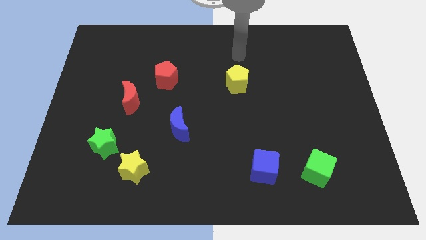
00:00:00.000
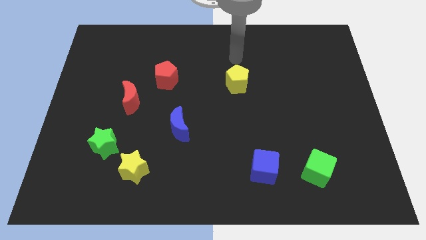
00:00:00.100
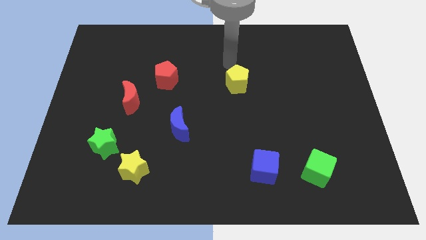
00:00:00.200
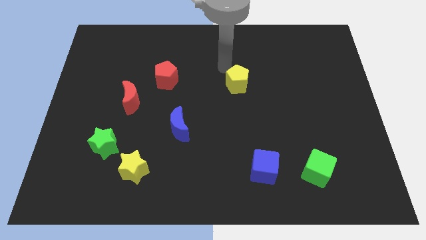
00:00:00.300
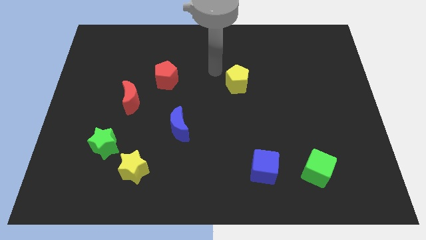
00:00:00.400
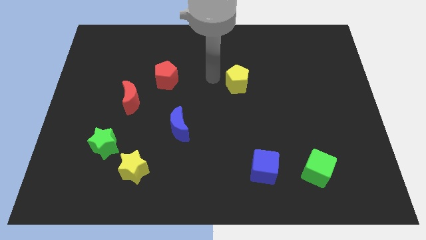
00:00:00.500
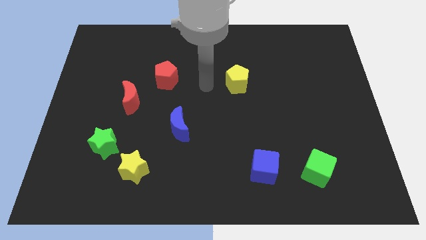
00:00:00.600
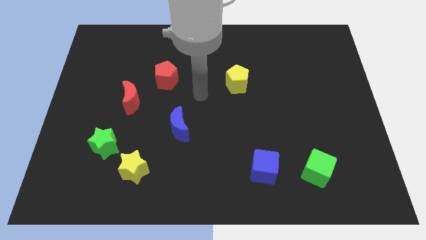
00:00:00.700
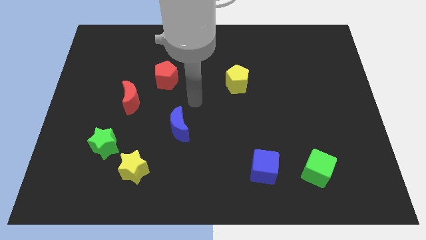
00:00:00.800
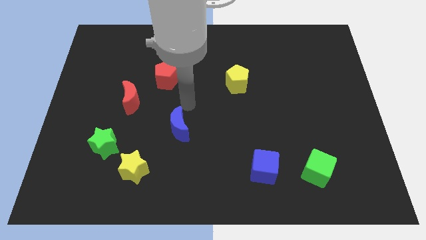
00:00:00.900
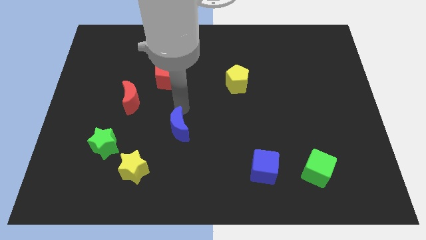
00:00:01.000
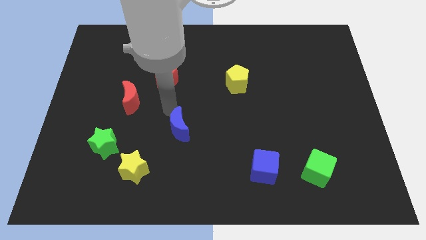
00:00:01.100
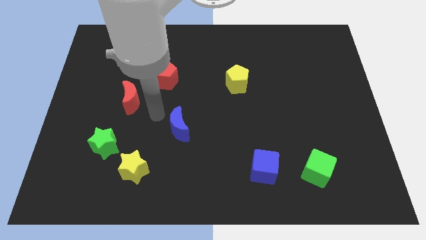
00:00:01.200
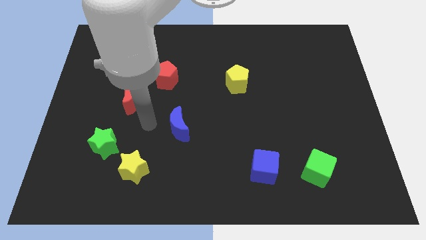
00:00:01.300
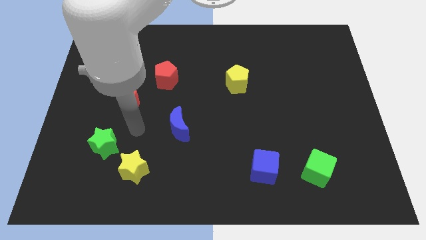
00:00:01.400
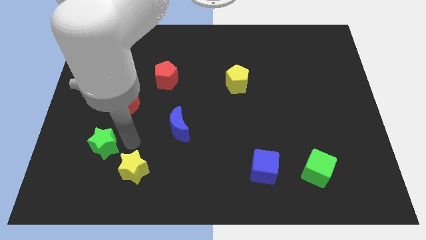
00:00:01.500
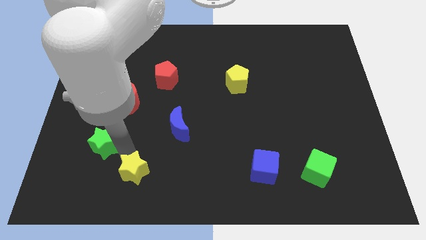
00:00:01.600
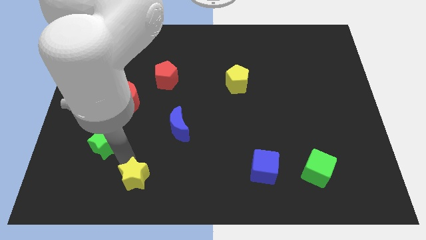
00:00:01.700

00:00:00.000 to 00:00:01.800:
separate the green star from the yellow star

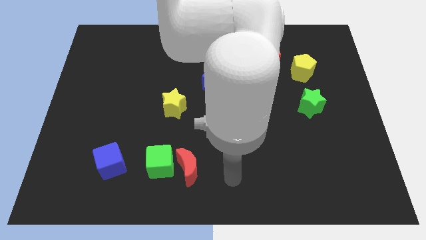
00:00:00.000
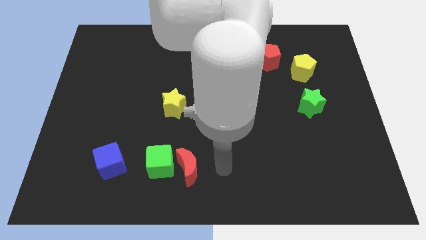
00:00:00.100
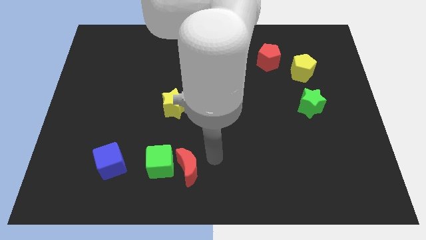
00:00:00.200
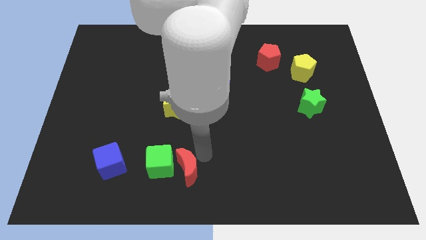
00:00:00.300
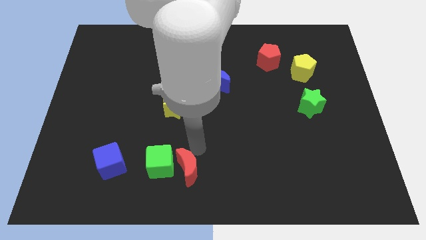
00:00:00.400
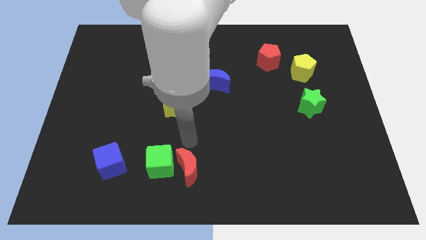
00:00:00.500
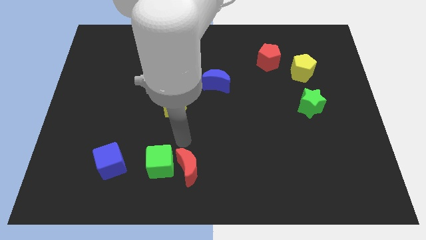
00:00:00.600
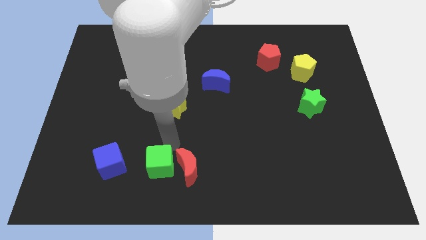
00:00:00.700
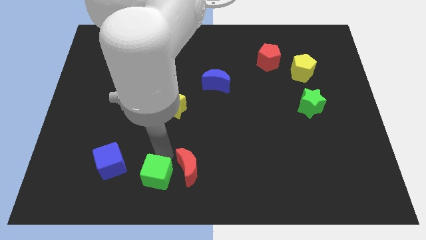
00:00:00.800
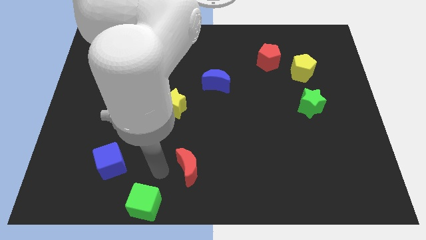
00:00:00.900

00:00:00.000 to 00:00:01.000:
pull the red moon apart from the green cube

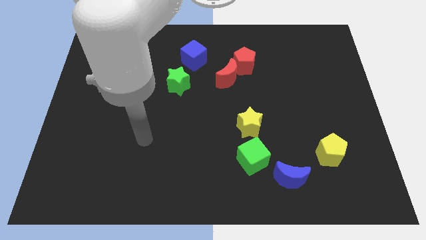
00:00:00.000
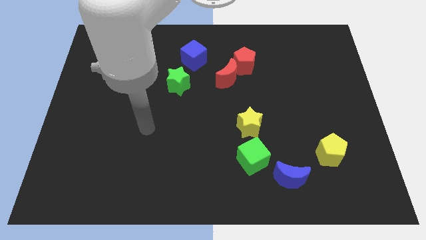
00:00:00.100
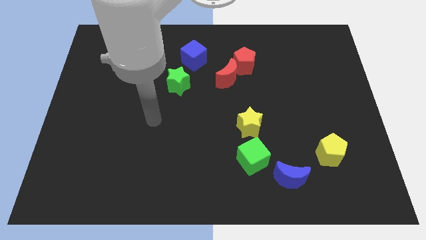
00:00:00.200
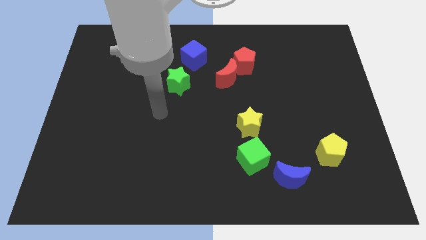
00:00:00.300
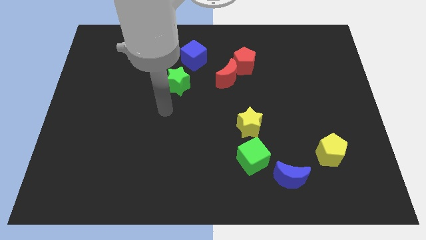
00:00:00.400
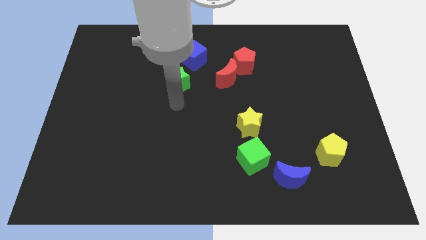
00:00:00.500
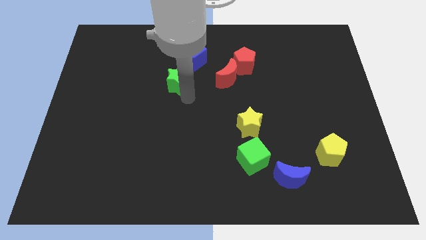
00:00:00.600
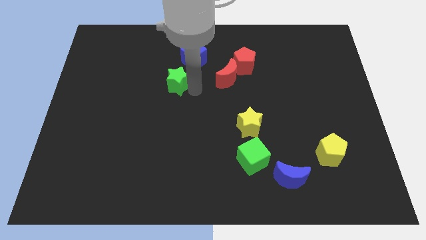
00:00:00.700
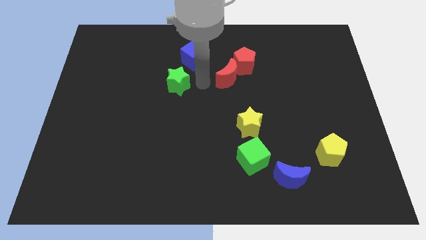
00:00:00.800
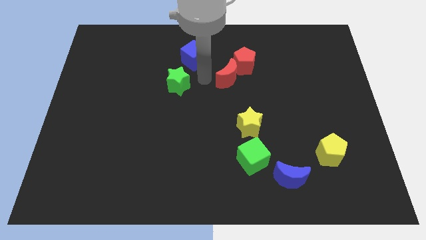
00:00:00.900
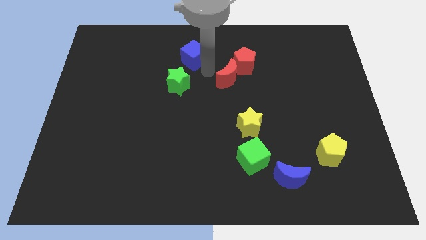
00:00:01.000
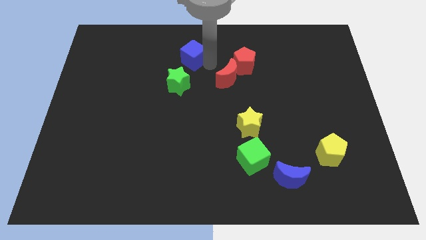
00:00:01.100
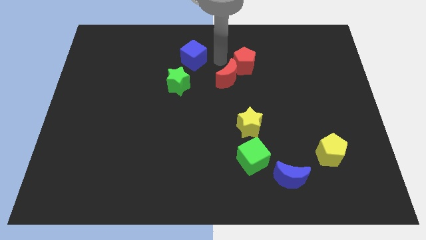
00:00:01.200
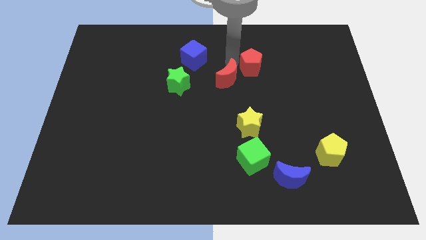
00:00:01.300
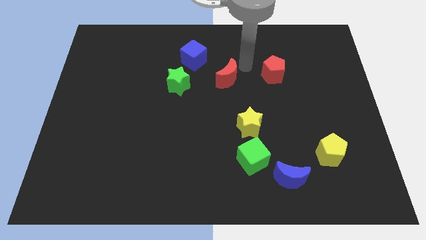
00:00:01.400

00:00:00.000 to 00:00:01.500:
separate the red moon from the red pentagon

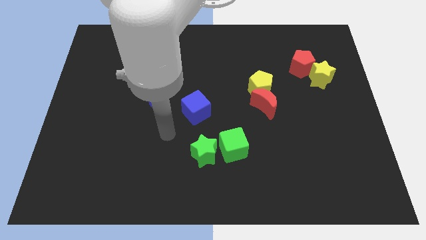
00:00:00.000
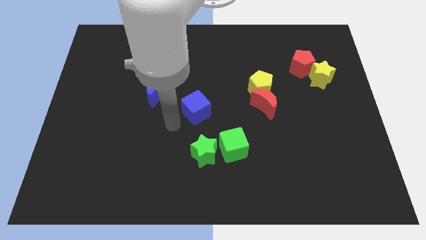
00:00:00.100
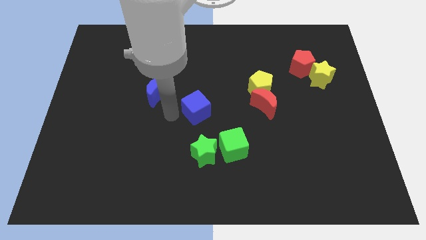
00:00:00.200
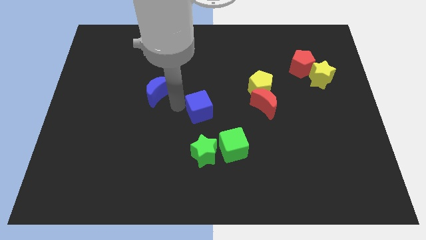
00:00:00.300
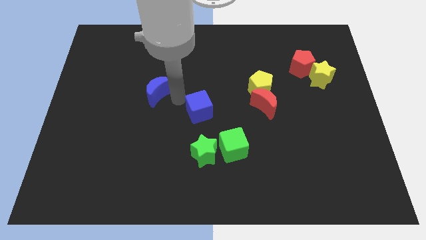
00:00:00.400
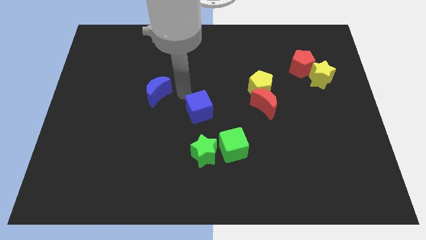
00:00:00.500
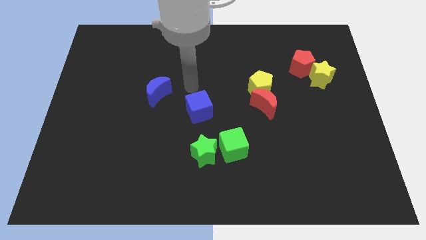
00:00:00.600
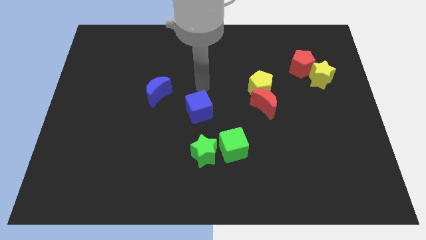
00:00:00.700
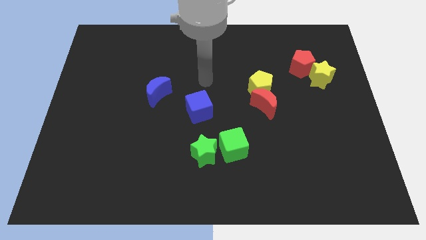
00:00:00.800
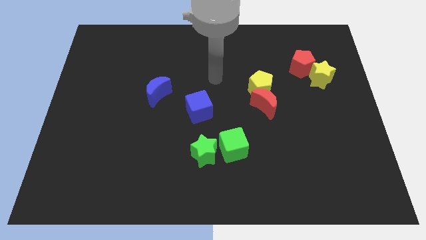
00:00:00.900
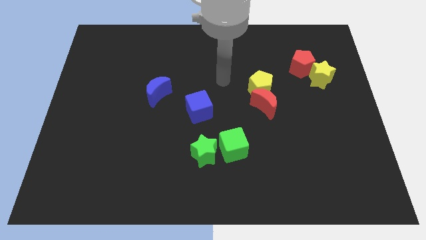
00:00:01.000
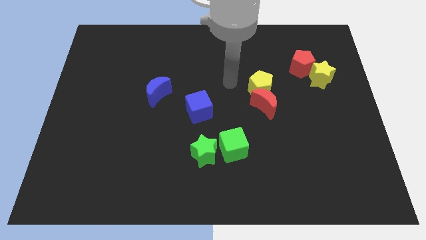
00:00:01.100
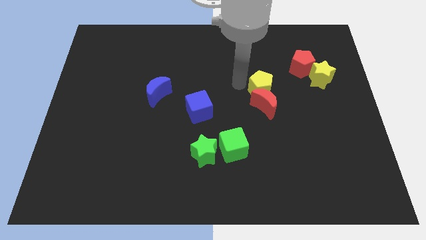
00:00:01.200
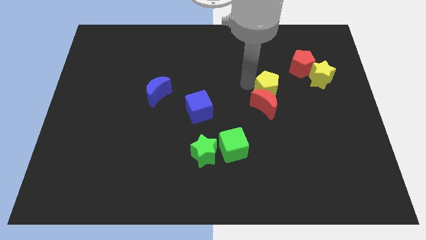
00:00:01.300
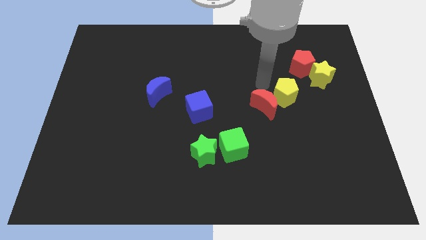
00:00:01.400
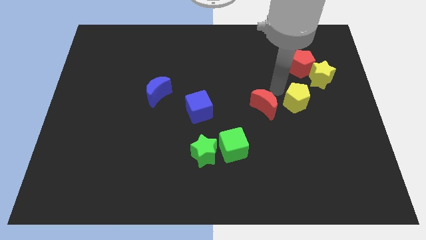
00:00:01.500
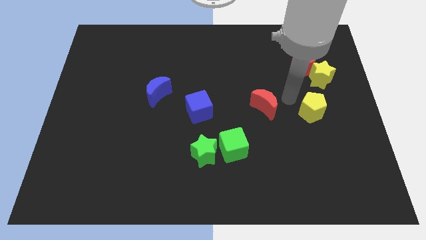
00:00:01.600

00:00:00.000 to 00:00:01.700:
move the red moon away from the yellow pentagon

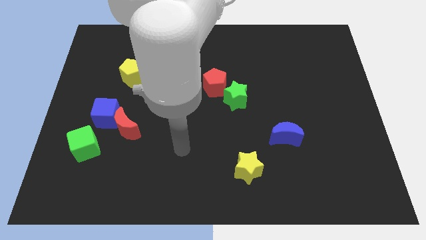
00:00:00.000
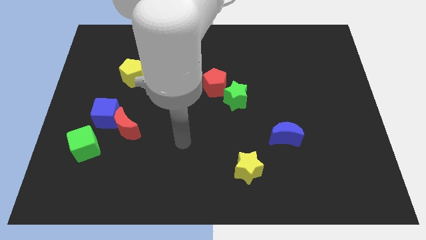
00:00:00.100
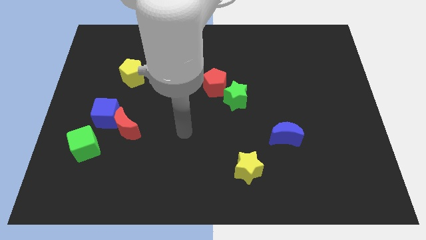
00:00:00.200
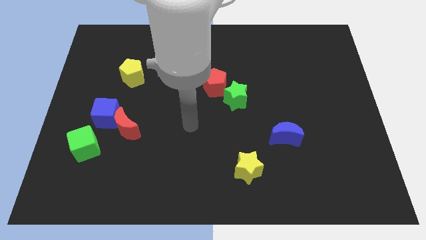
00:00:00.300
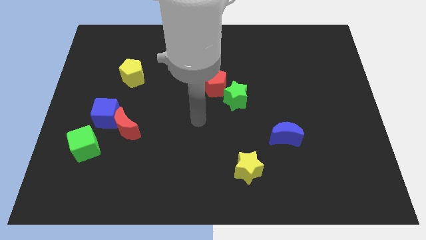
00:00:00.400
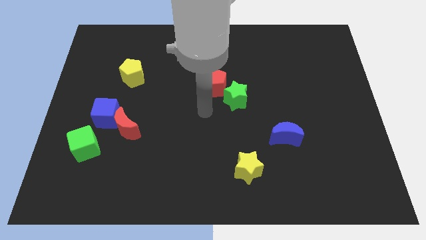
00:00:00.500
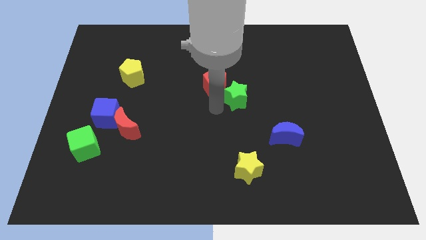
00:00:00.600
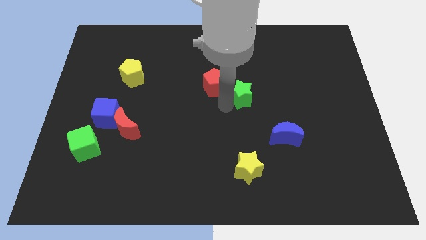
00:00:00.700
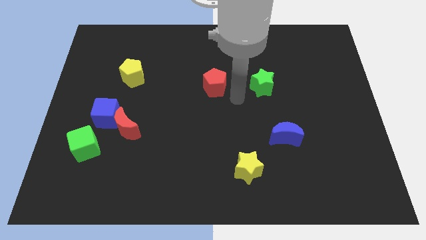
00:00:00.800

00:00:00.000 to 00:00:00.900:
pull the red pentagon apart from the green star

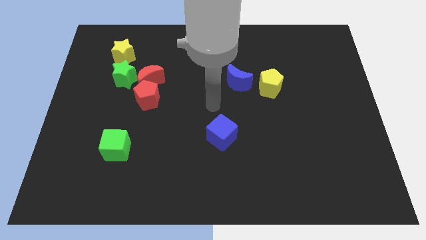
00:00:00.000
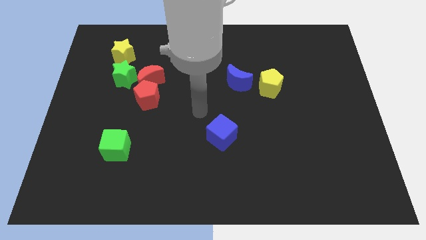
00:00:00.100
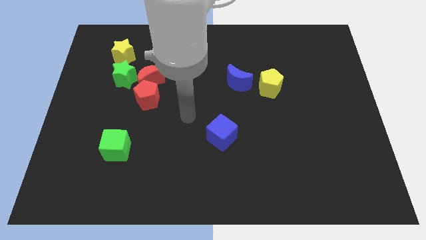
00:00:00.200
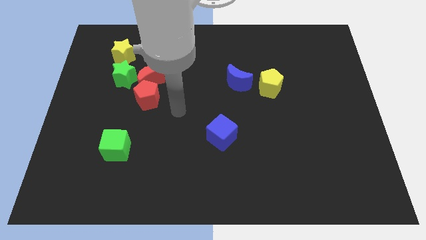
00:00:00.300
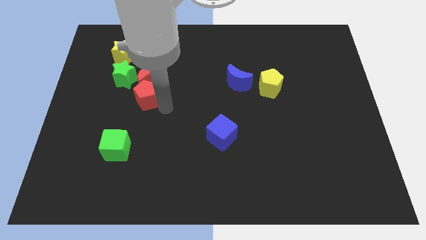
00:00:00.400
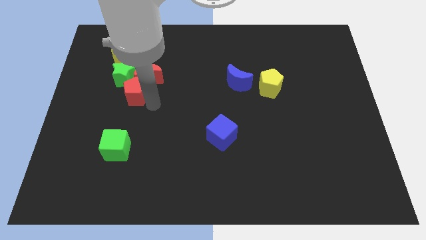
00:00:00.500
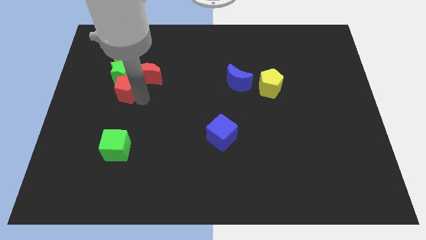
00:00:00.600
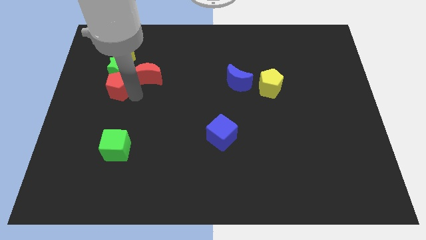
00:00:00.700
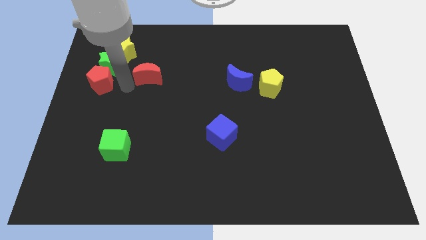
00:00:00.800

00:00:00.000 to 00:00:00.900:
move the red moon away from the red pentagon and green star

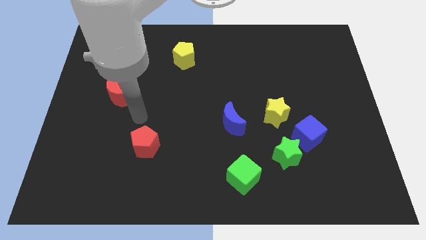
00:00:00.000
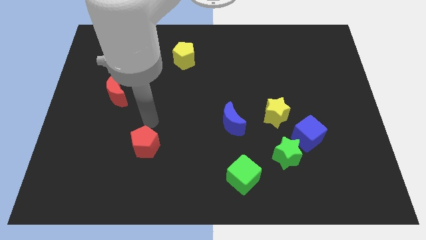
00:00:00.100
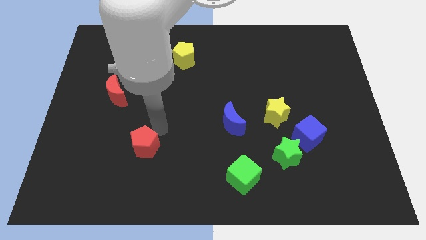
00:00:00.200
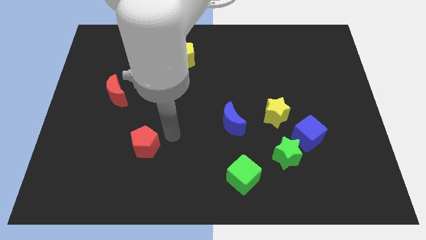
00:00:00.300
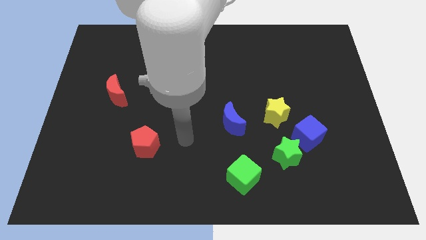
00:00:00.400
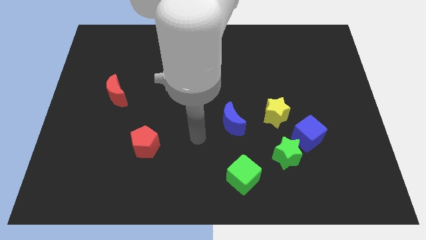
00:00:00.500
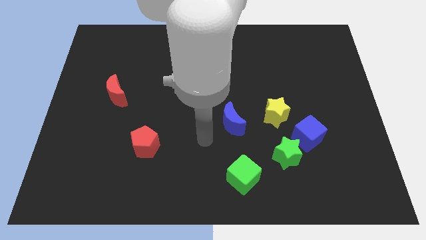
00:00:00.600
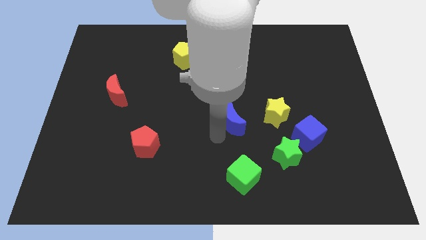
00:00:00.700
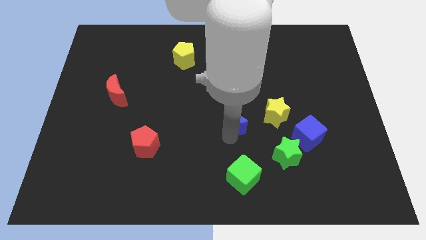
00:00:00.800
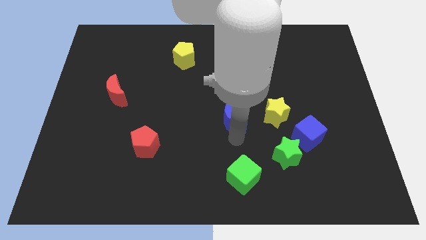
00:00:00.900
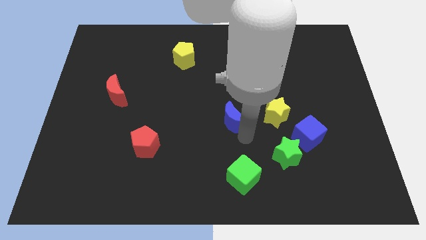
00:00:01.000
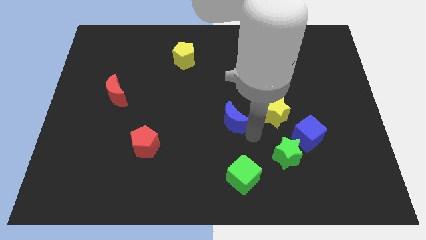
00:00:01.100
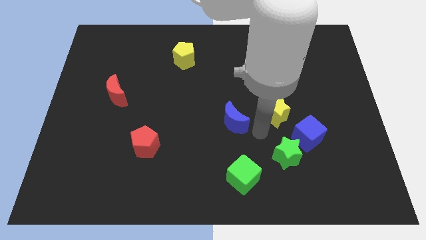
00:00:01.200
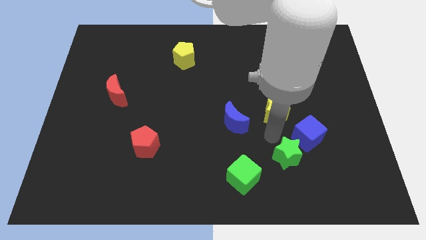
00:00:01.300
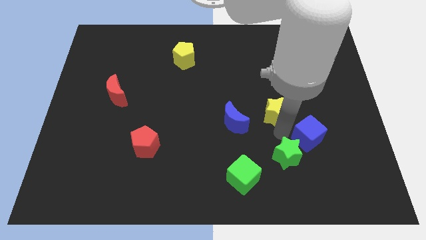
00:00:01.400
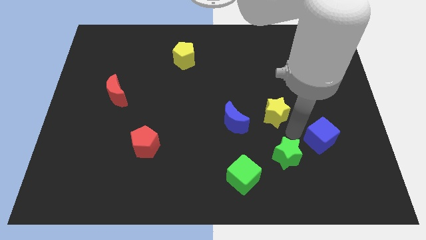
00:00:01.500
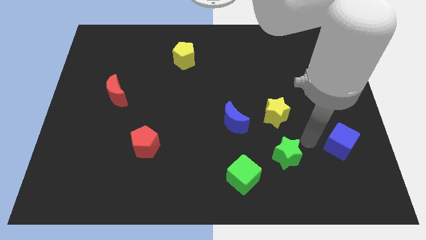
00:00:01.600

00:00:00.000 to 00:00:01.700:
pull the green star apart from the blue cube
